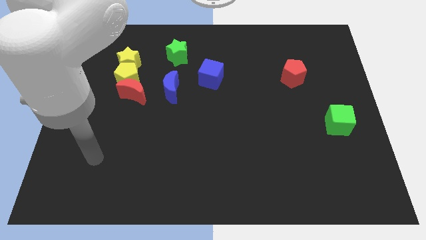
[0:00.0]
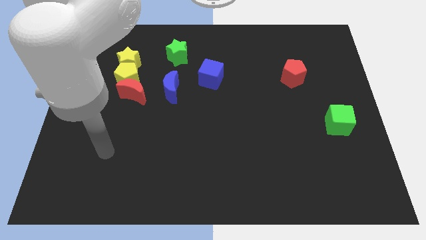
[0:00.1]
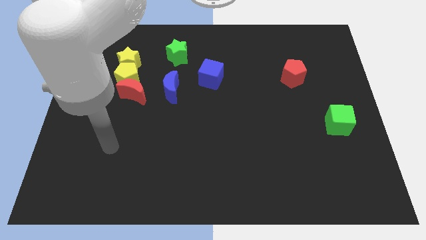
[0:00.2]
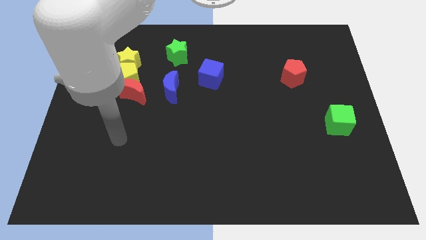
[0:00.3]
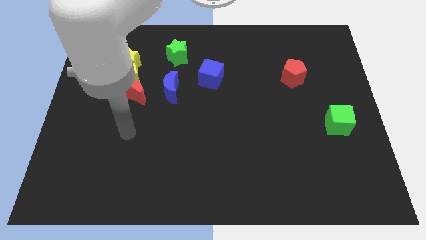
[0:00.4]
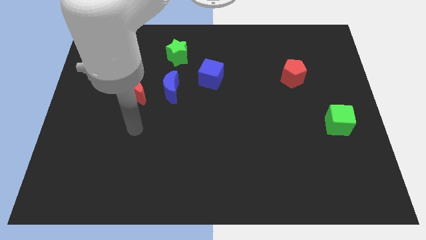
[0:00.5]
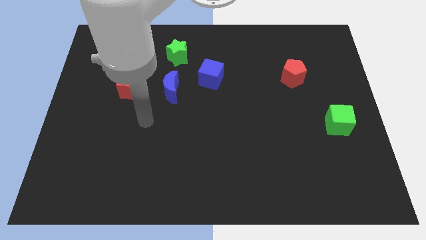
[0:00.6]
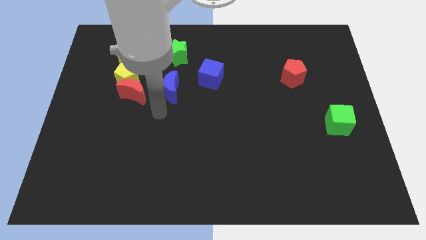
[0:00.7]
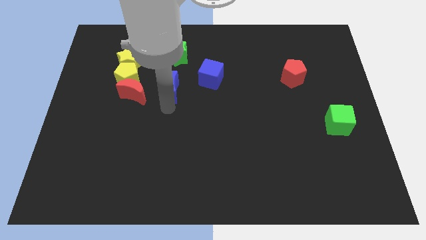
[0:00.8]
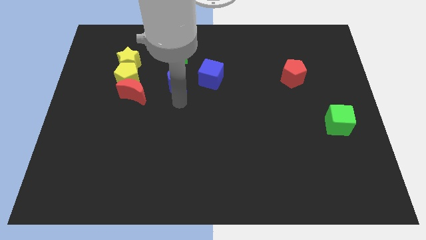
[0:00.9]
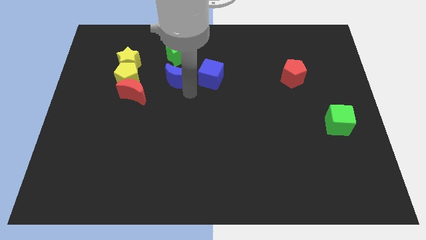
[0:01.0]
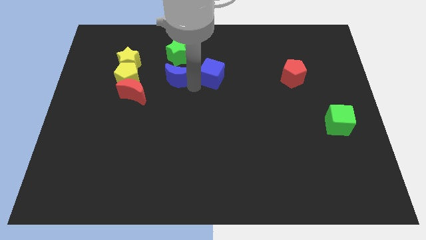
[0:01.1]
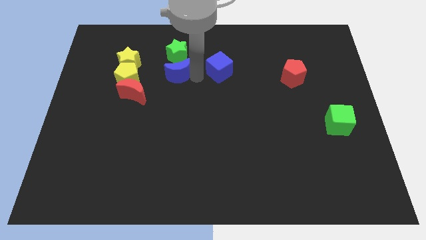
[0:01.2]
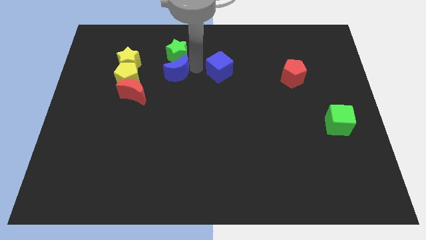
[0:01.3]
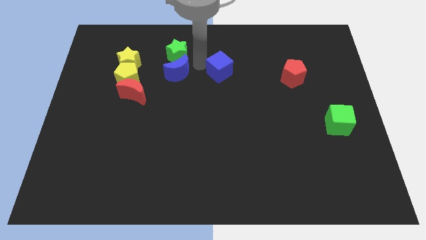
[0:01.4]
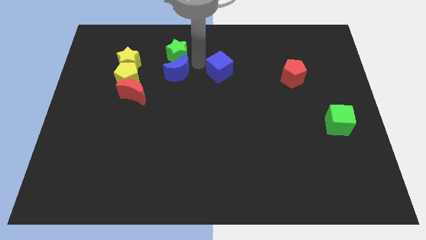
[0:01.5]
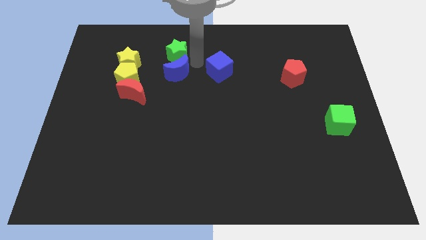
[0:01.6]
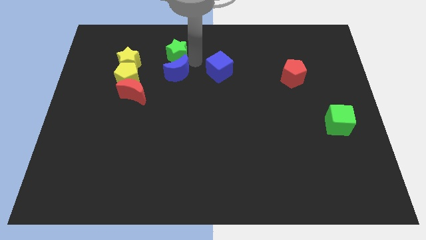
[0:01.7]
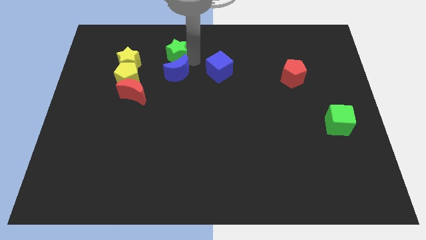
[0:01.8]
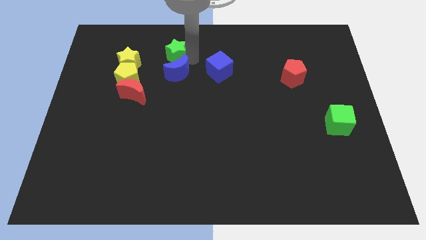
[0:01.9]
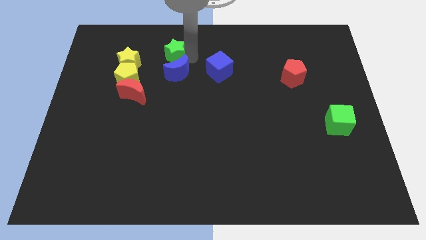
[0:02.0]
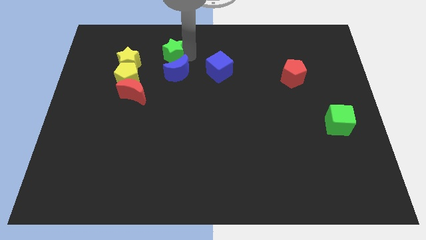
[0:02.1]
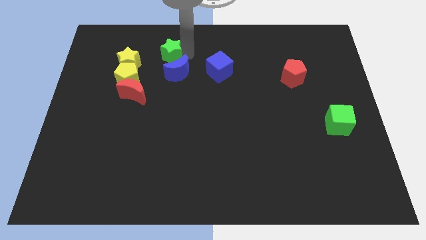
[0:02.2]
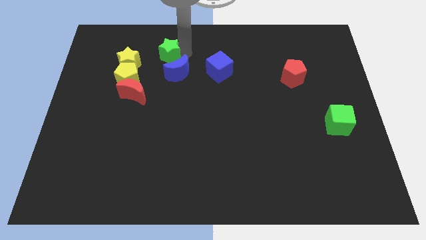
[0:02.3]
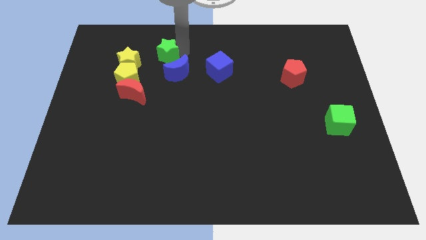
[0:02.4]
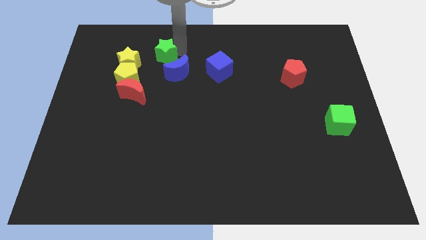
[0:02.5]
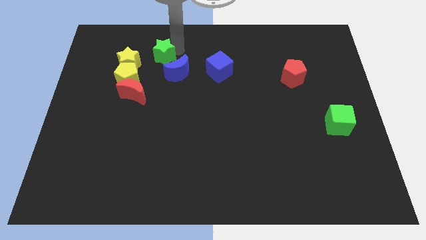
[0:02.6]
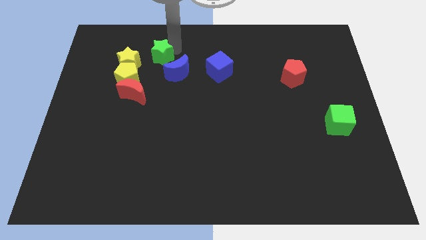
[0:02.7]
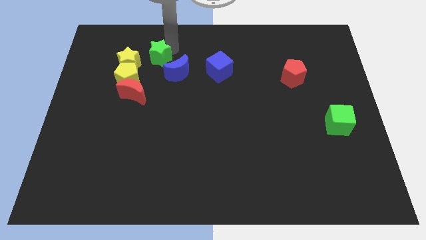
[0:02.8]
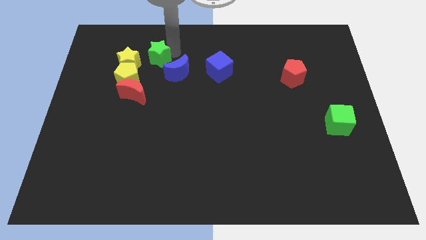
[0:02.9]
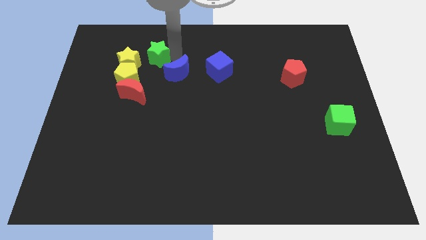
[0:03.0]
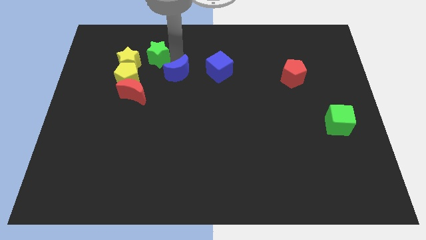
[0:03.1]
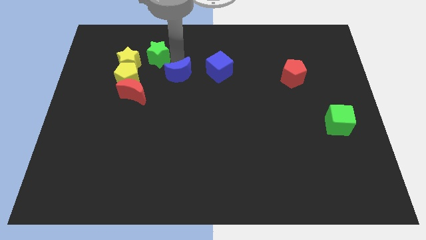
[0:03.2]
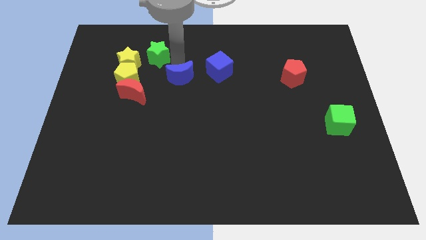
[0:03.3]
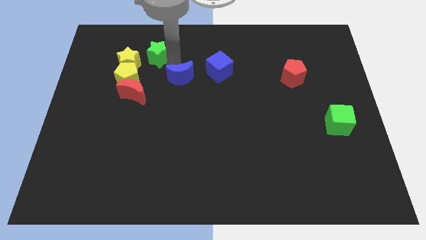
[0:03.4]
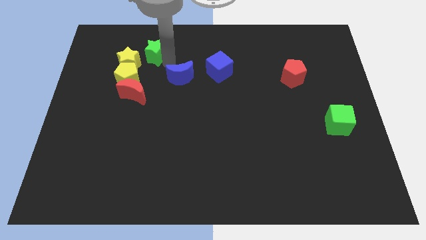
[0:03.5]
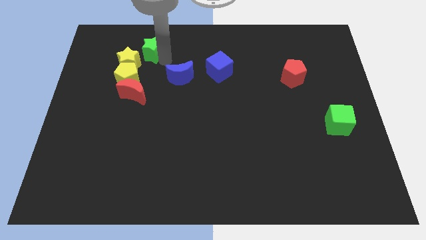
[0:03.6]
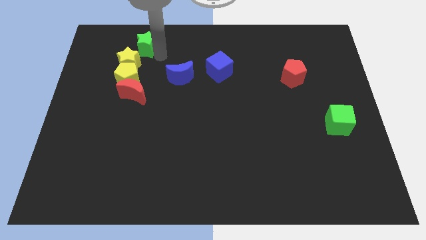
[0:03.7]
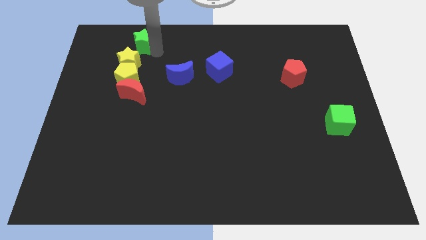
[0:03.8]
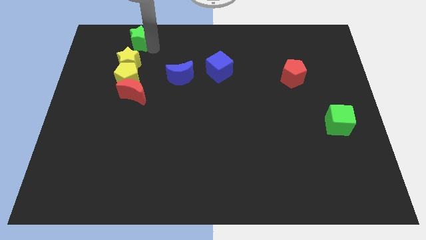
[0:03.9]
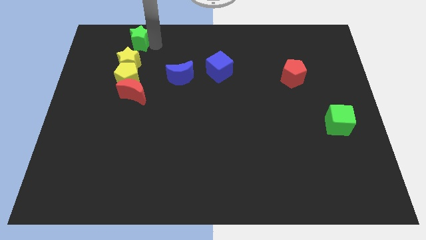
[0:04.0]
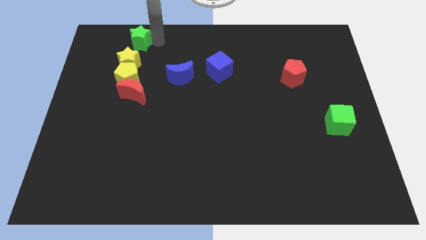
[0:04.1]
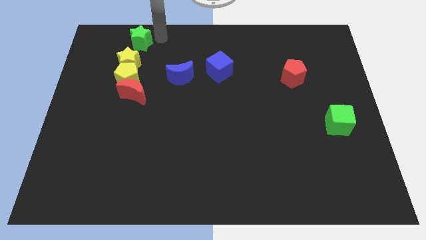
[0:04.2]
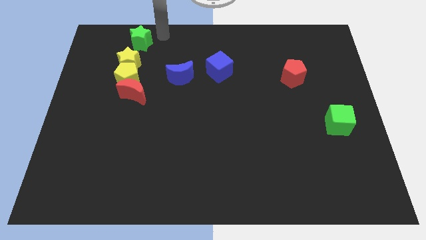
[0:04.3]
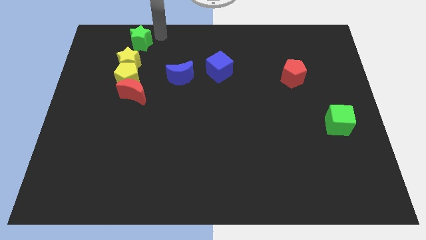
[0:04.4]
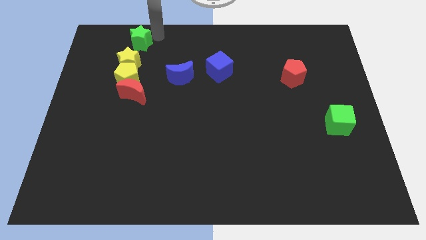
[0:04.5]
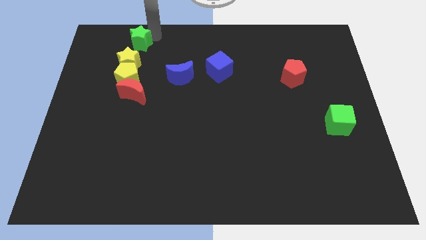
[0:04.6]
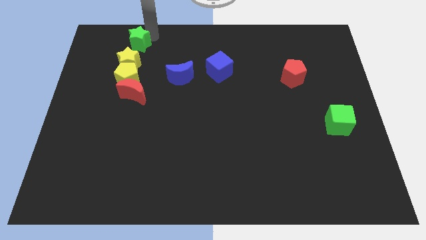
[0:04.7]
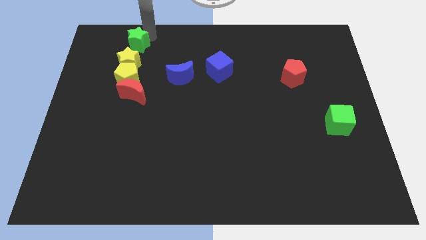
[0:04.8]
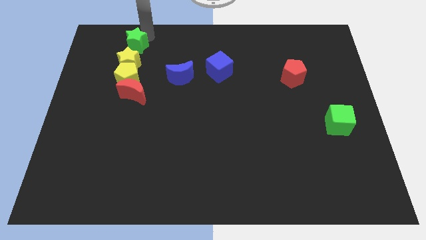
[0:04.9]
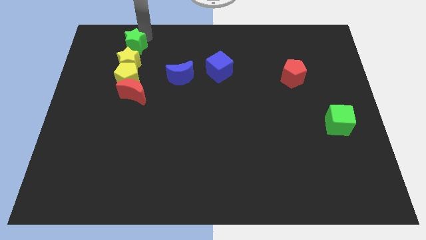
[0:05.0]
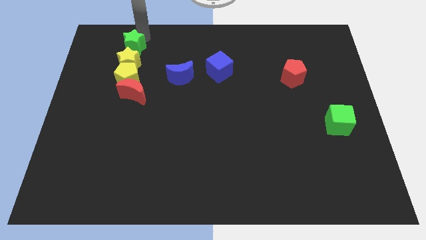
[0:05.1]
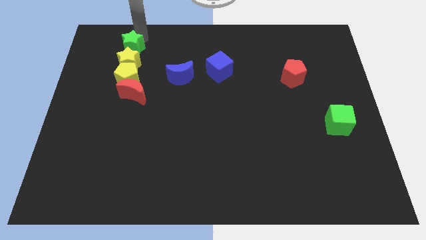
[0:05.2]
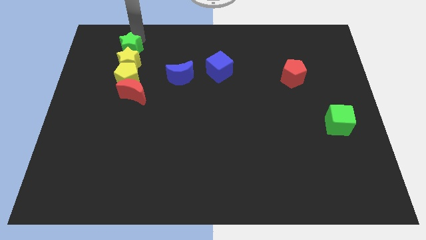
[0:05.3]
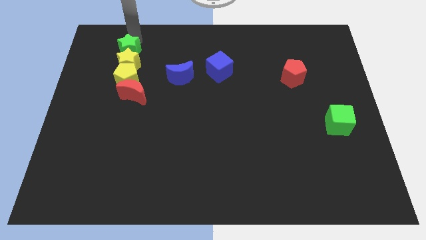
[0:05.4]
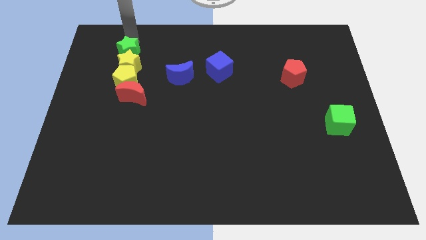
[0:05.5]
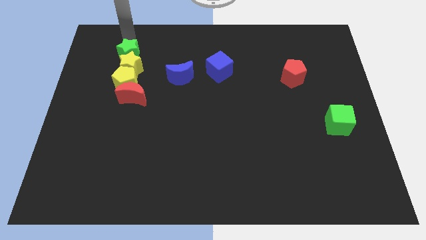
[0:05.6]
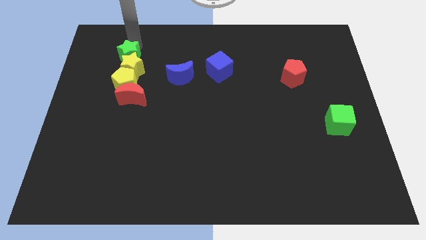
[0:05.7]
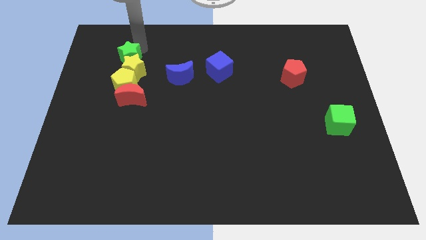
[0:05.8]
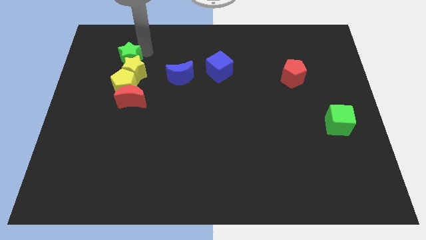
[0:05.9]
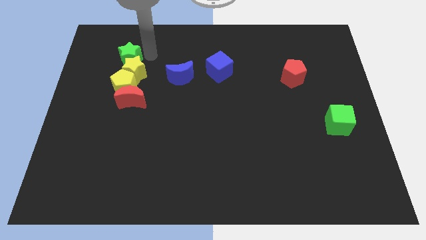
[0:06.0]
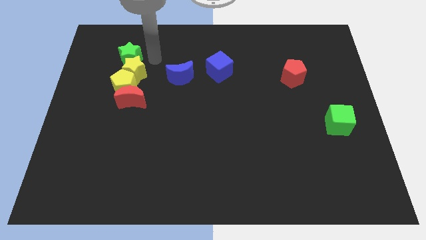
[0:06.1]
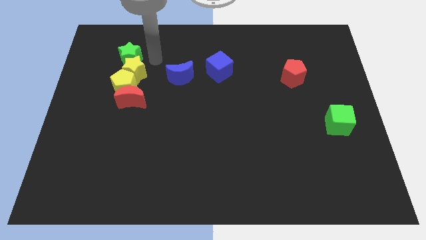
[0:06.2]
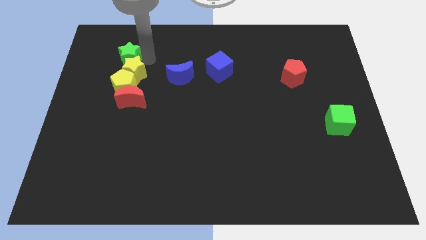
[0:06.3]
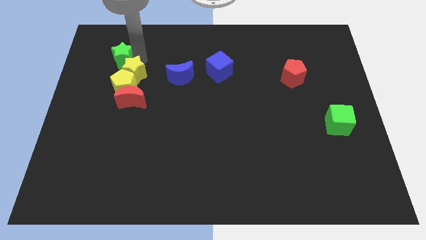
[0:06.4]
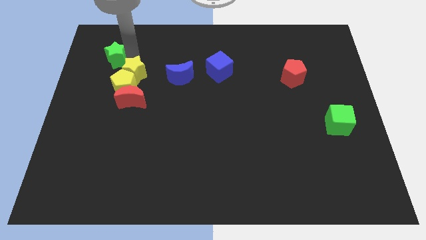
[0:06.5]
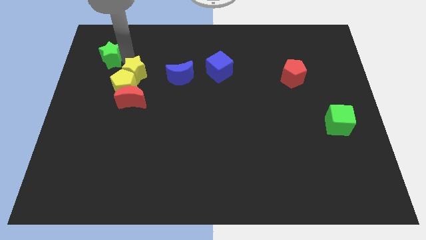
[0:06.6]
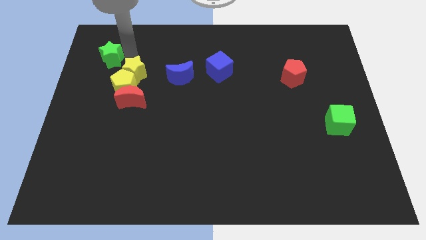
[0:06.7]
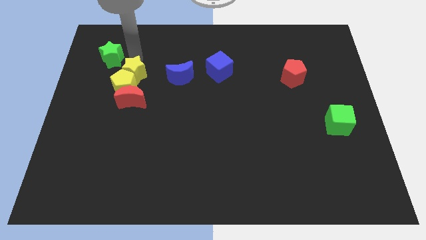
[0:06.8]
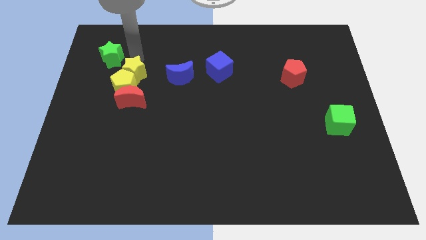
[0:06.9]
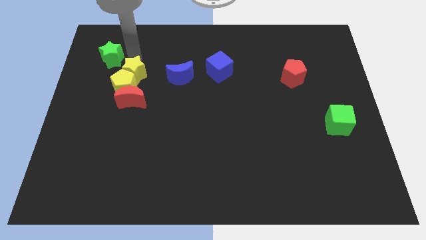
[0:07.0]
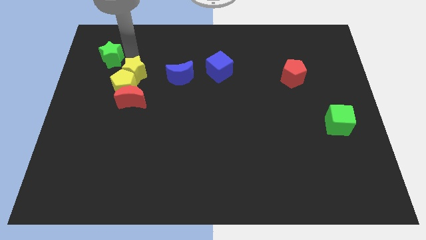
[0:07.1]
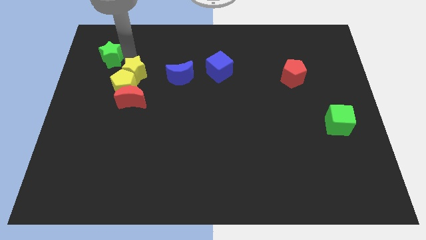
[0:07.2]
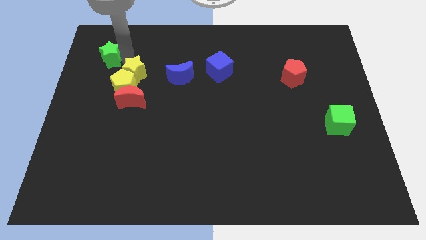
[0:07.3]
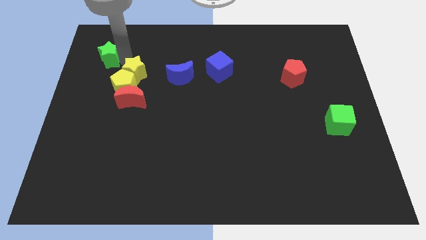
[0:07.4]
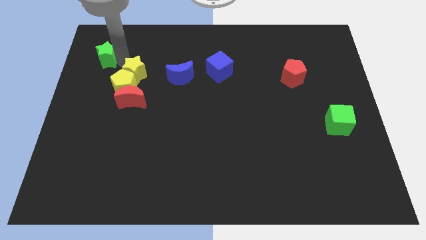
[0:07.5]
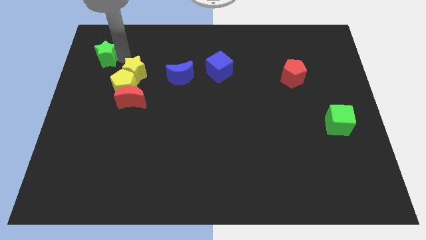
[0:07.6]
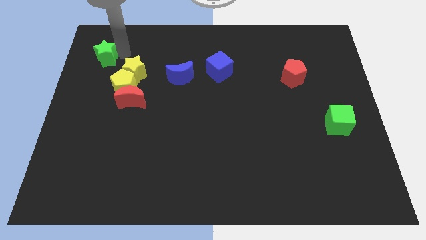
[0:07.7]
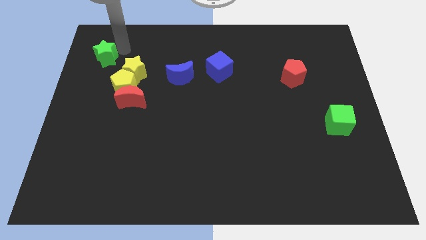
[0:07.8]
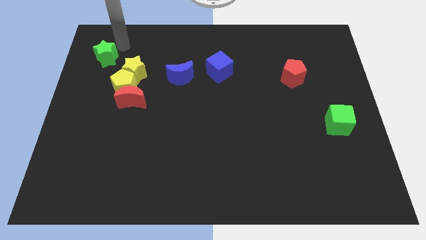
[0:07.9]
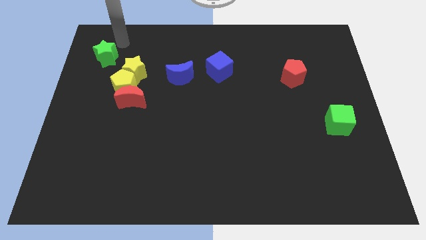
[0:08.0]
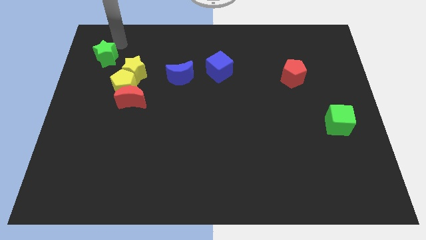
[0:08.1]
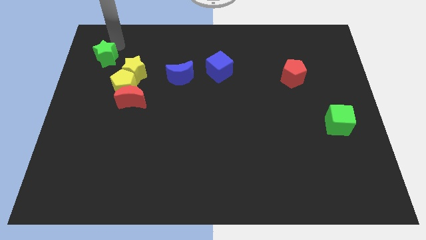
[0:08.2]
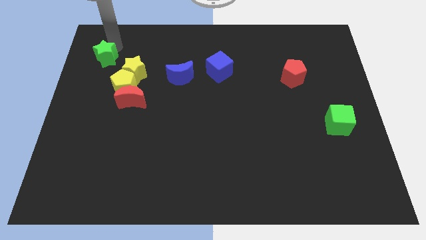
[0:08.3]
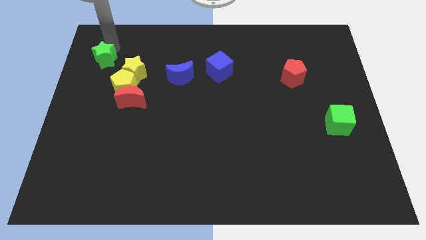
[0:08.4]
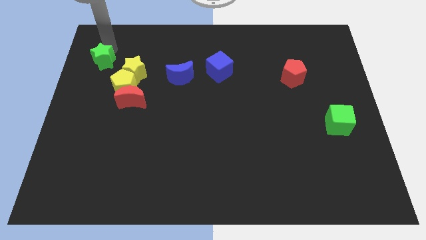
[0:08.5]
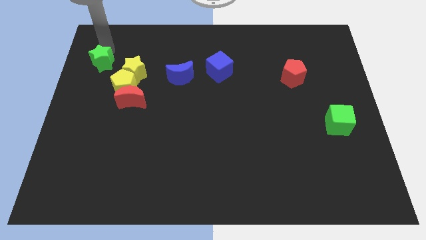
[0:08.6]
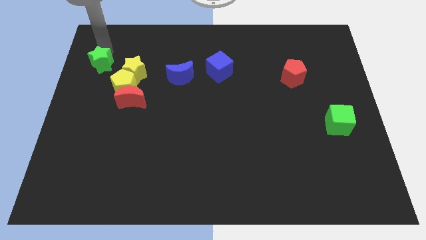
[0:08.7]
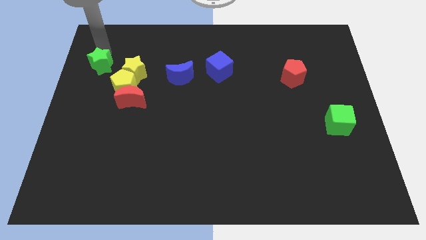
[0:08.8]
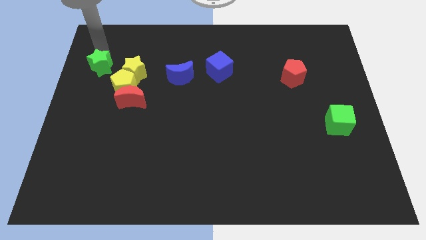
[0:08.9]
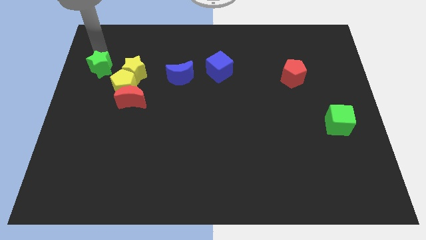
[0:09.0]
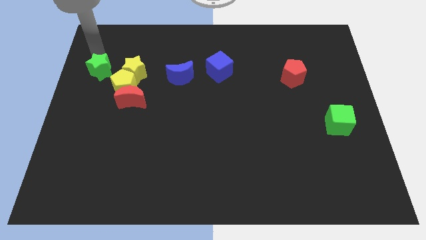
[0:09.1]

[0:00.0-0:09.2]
push the green star to the left side
